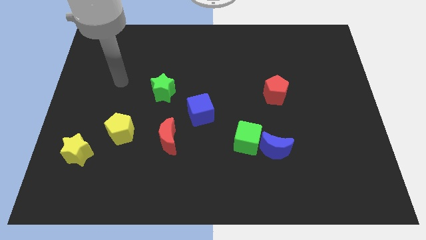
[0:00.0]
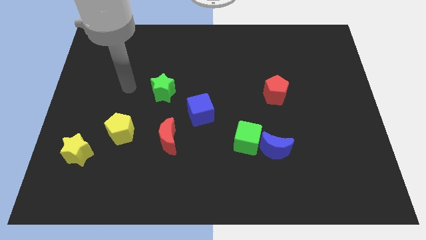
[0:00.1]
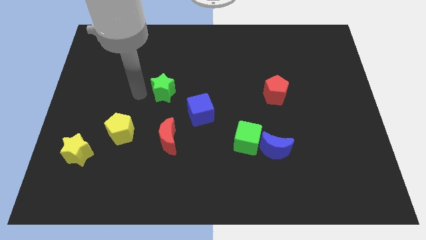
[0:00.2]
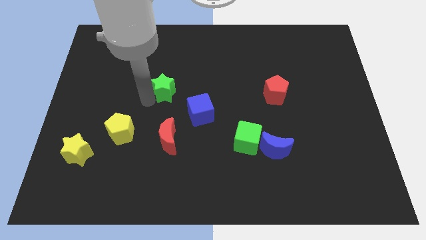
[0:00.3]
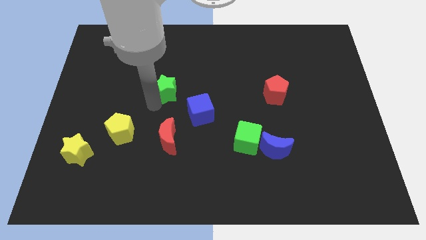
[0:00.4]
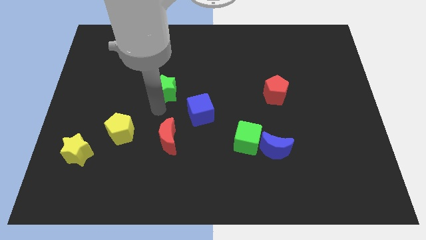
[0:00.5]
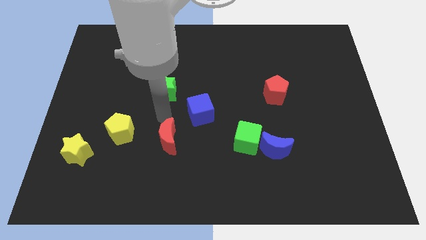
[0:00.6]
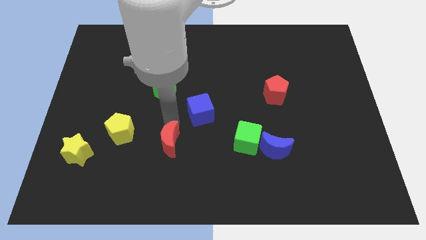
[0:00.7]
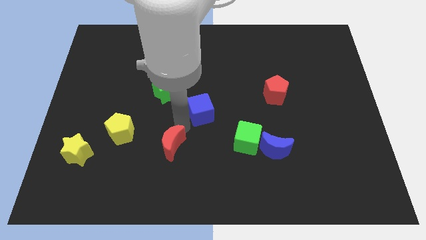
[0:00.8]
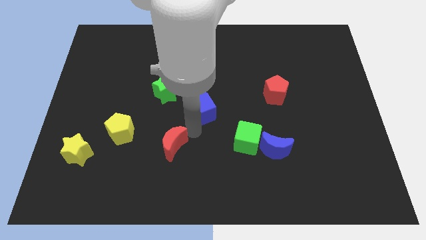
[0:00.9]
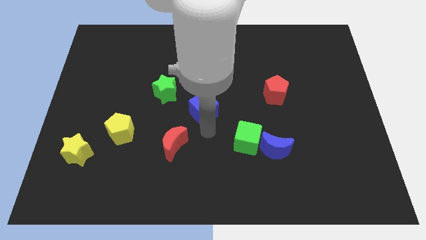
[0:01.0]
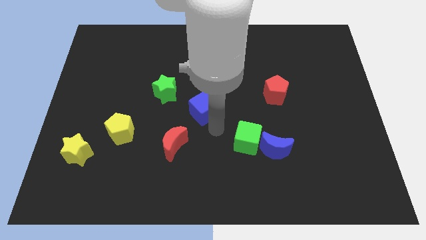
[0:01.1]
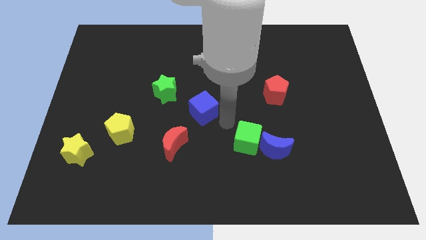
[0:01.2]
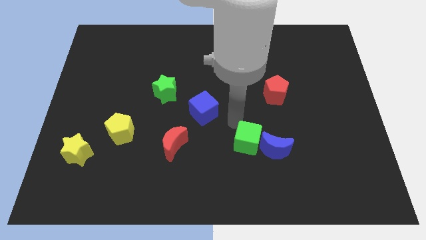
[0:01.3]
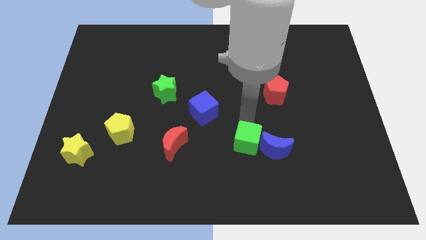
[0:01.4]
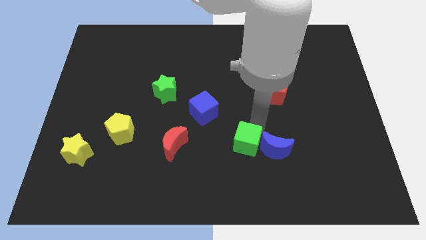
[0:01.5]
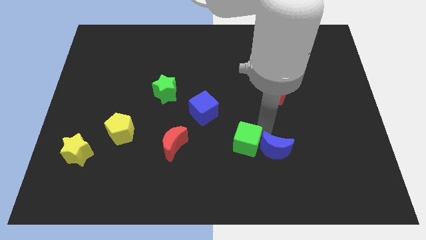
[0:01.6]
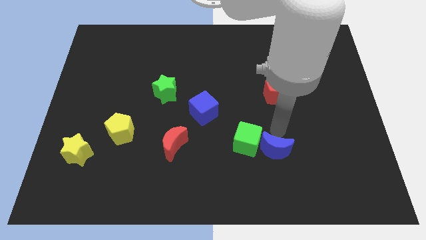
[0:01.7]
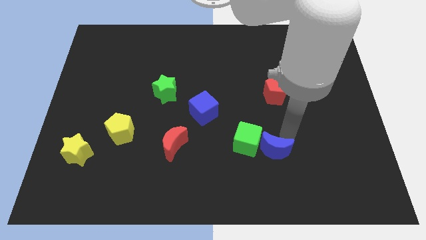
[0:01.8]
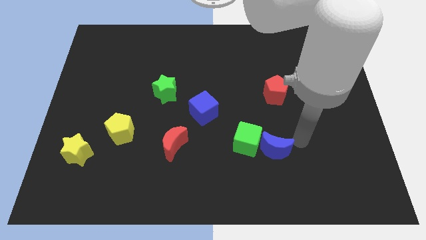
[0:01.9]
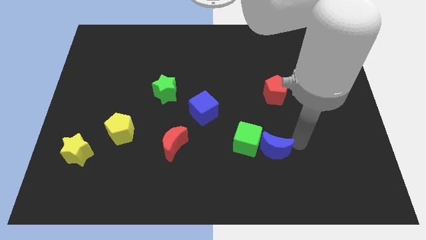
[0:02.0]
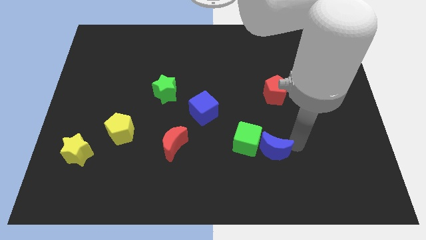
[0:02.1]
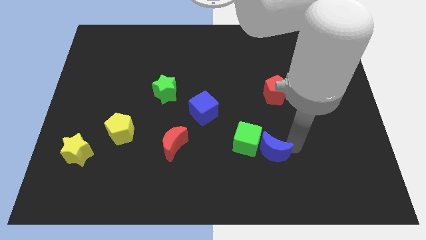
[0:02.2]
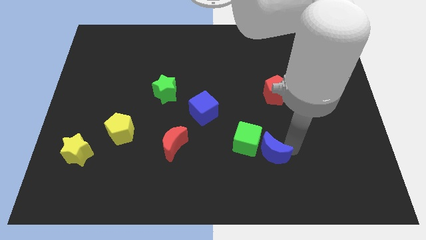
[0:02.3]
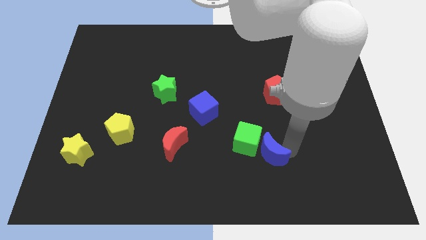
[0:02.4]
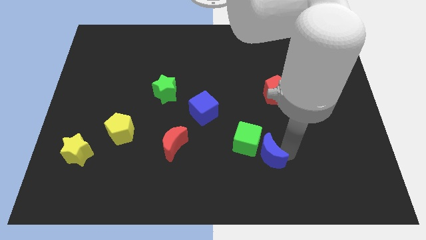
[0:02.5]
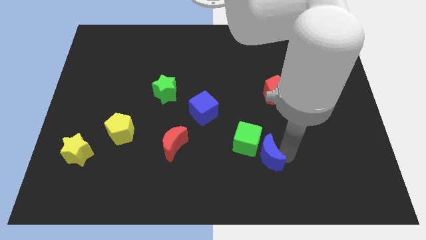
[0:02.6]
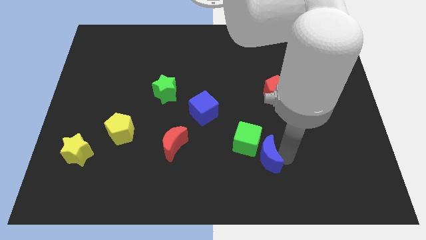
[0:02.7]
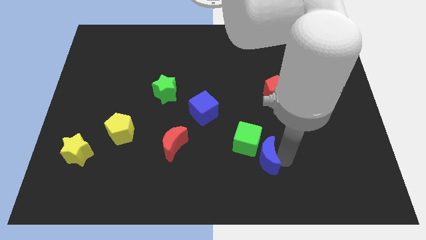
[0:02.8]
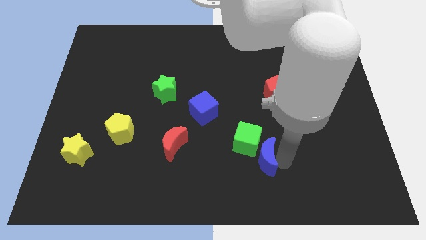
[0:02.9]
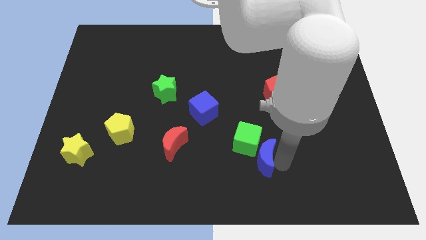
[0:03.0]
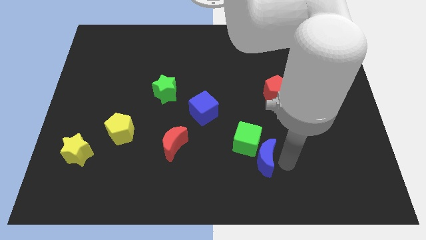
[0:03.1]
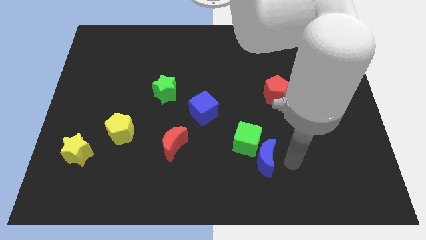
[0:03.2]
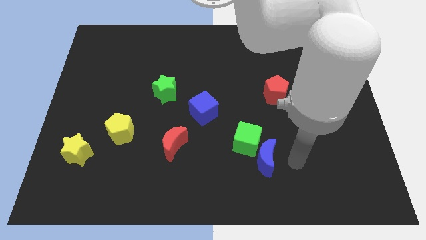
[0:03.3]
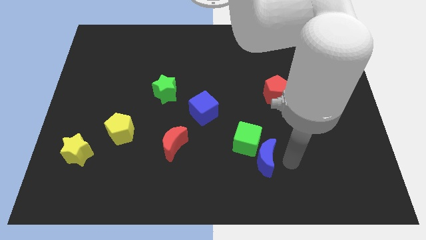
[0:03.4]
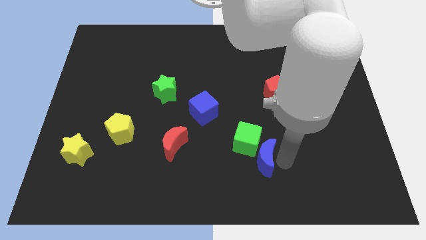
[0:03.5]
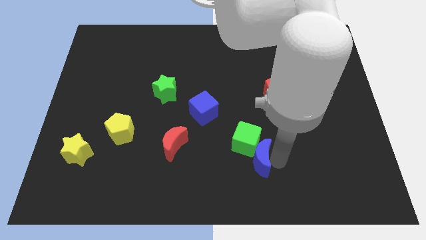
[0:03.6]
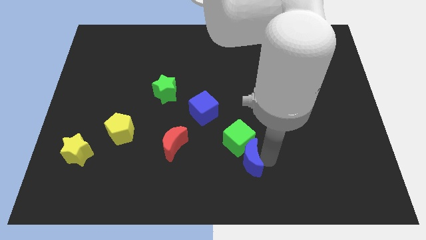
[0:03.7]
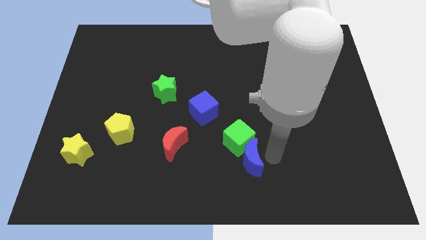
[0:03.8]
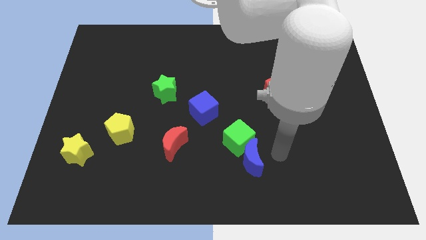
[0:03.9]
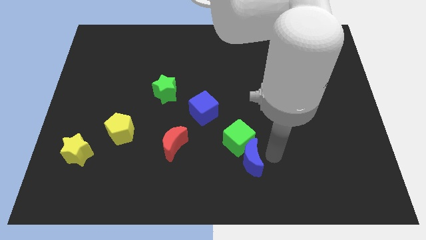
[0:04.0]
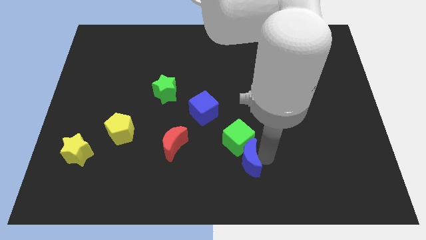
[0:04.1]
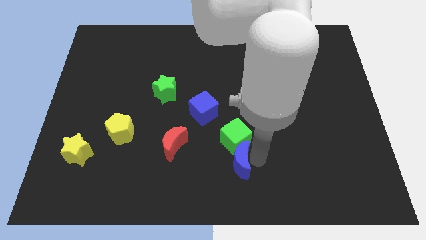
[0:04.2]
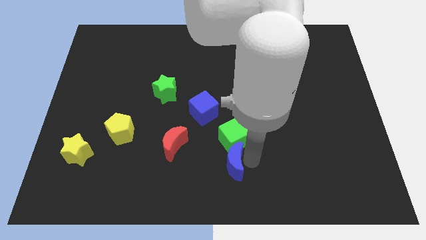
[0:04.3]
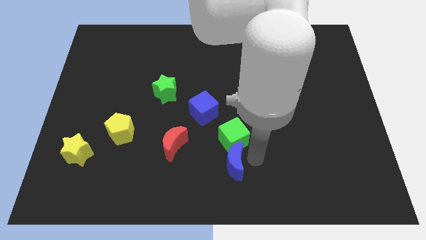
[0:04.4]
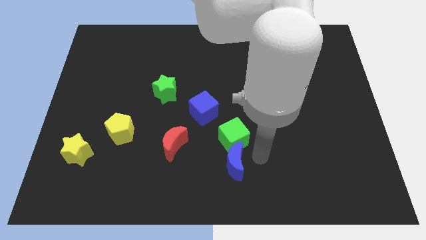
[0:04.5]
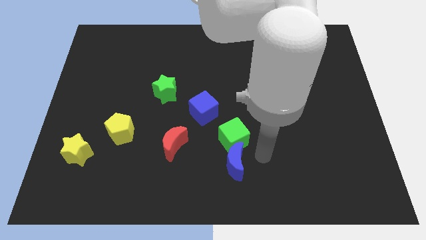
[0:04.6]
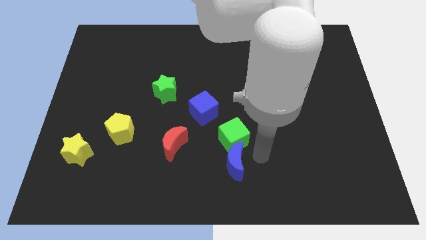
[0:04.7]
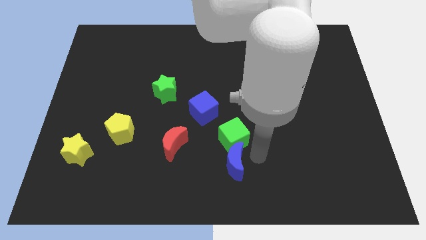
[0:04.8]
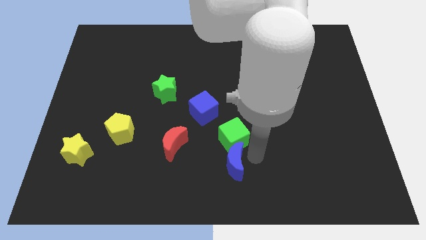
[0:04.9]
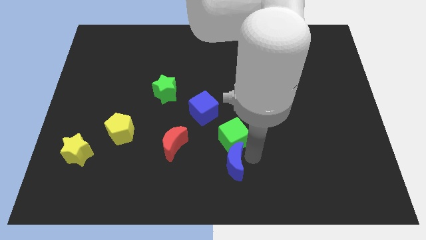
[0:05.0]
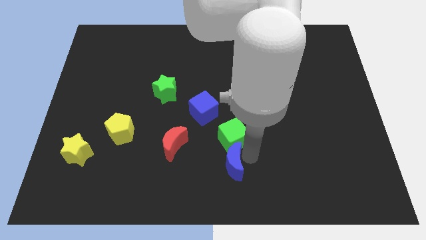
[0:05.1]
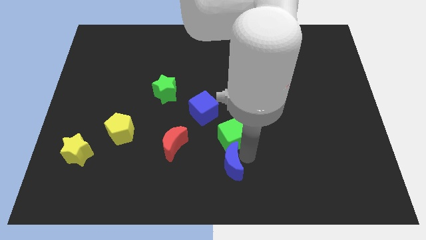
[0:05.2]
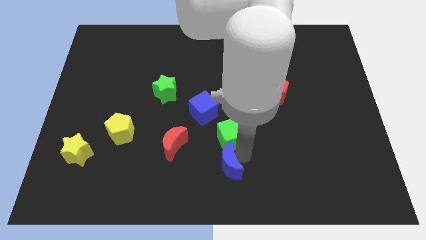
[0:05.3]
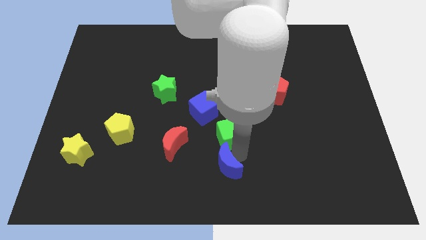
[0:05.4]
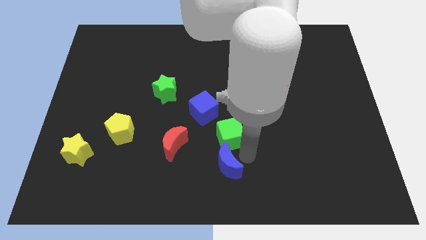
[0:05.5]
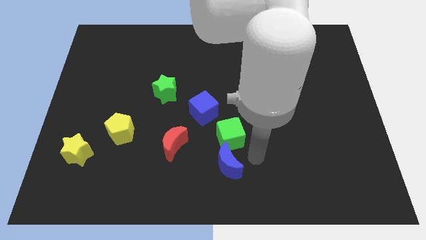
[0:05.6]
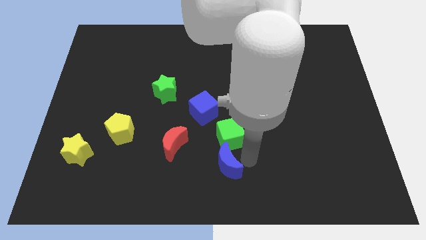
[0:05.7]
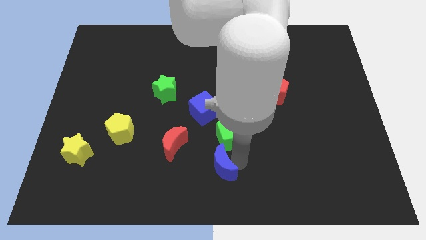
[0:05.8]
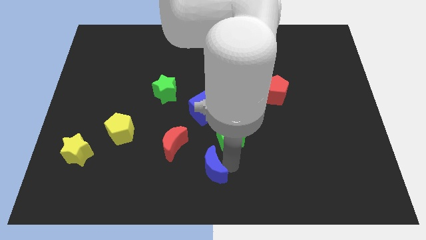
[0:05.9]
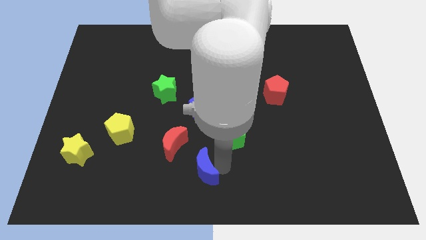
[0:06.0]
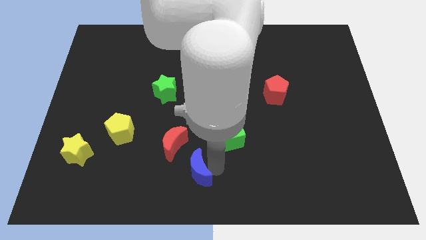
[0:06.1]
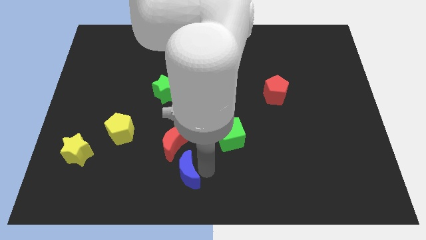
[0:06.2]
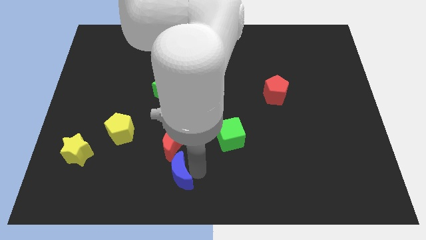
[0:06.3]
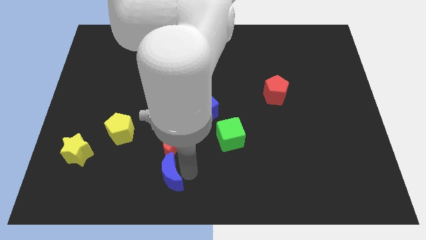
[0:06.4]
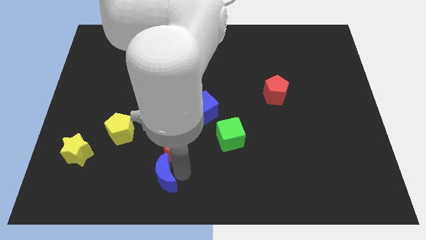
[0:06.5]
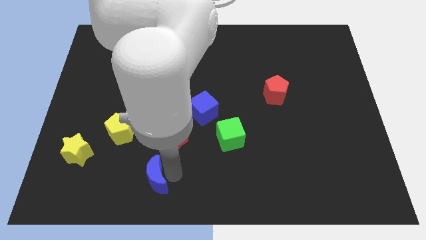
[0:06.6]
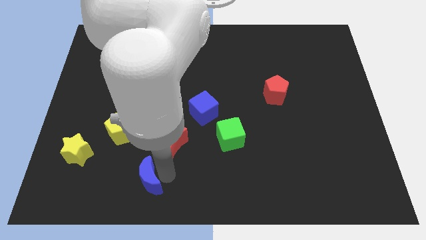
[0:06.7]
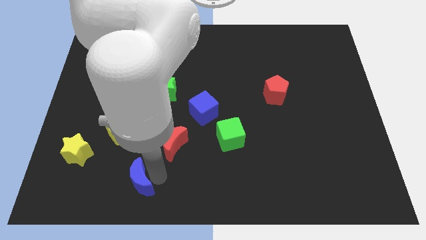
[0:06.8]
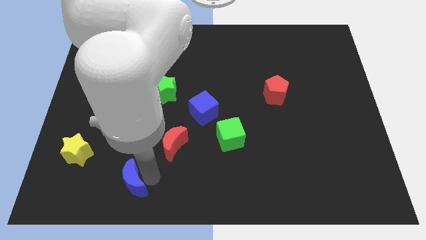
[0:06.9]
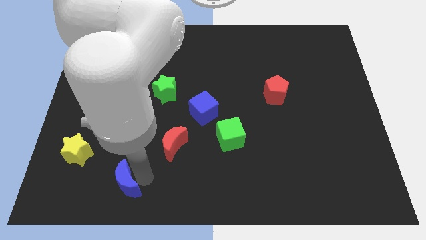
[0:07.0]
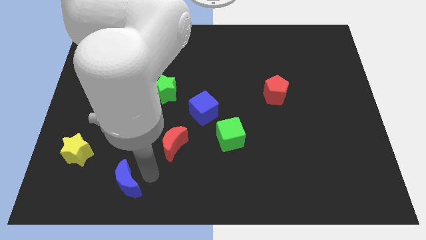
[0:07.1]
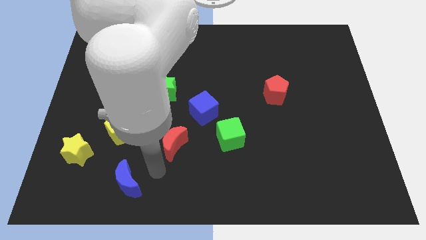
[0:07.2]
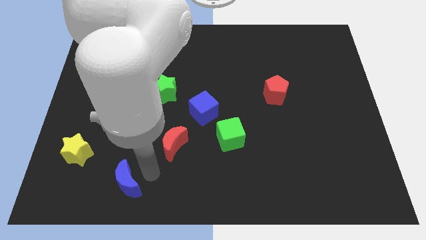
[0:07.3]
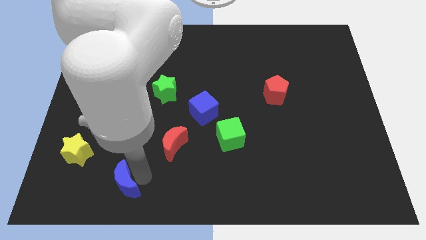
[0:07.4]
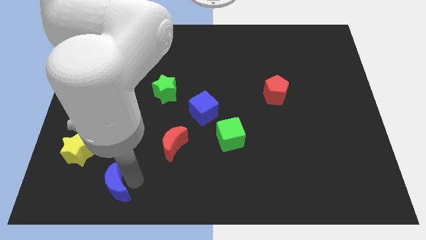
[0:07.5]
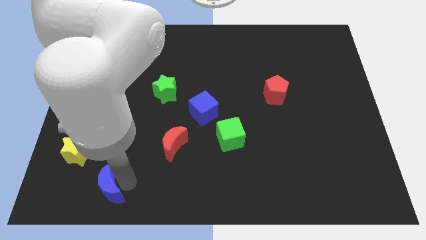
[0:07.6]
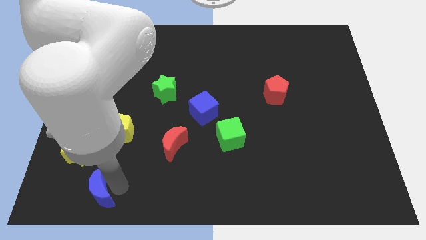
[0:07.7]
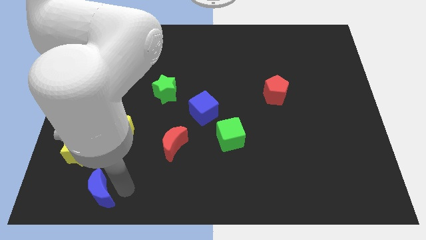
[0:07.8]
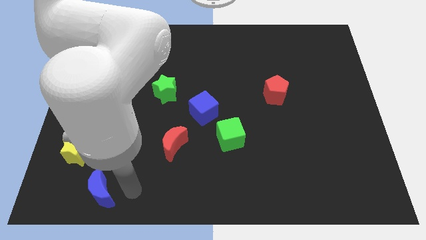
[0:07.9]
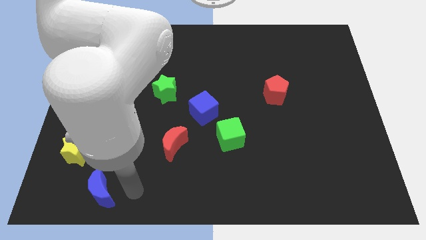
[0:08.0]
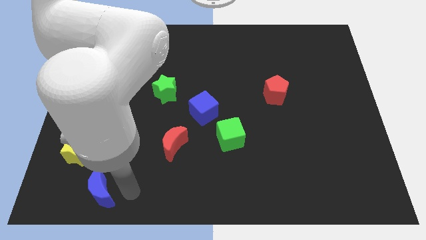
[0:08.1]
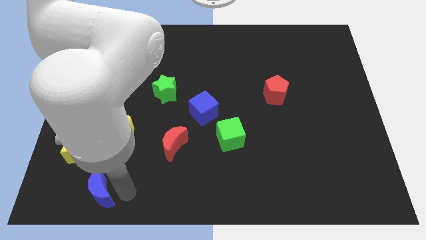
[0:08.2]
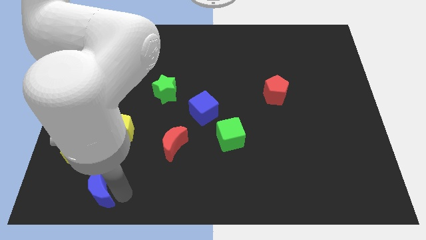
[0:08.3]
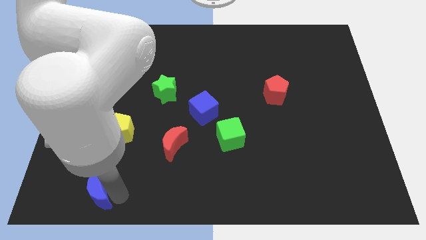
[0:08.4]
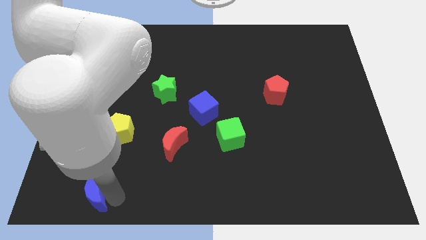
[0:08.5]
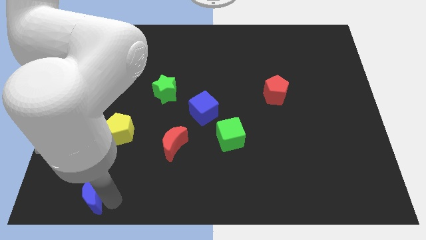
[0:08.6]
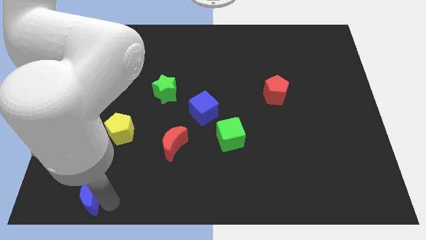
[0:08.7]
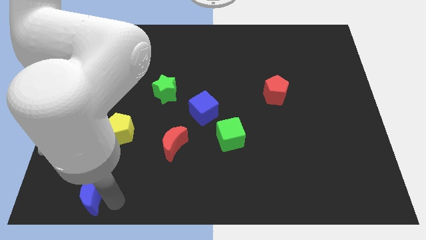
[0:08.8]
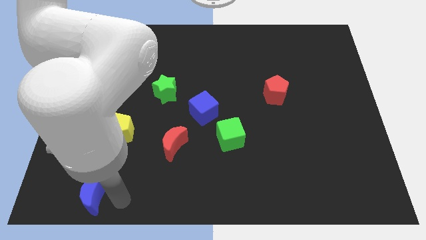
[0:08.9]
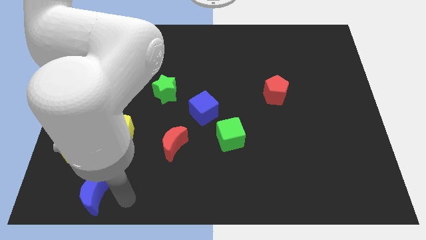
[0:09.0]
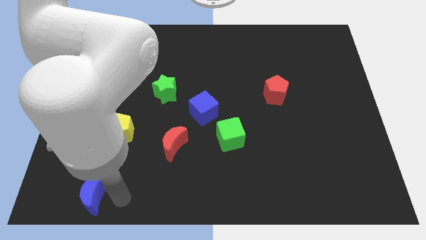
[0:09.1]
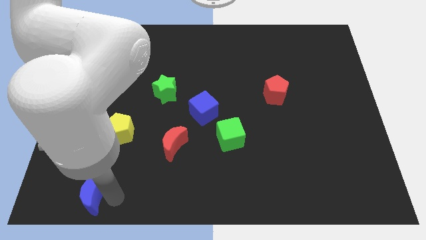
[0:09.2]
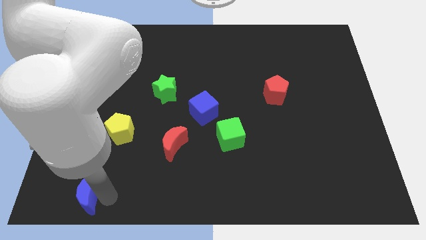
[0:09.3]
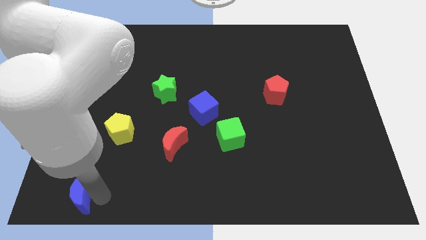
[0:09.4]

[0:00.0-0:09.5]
move the blue moon to the lower left corner
